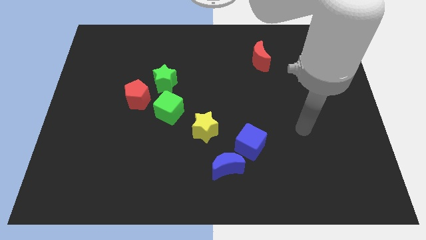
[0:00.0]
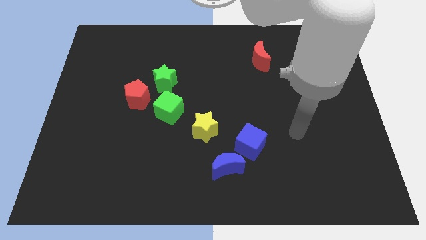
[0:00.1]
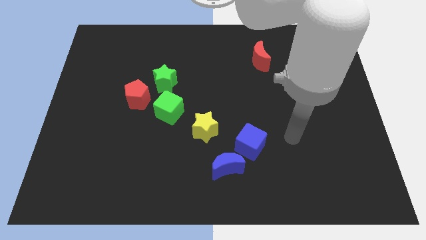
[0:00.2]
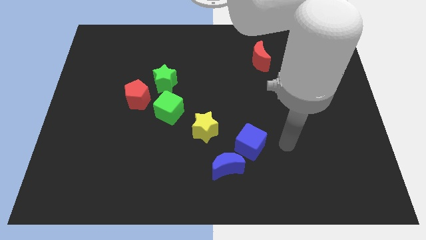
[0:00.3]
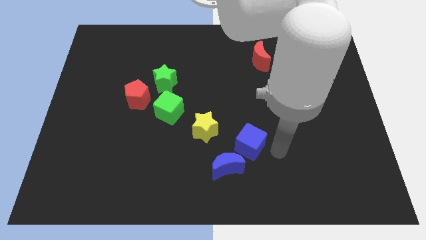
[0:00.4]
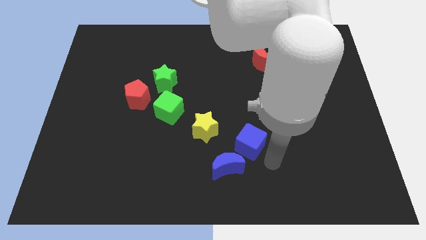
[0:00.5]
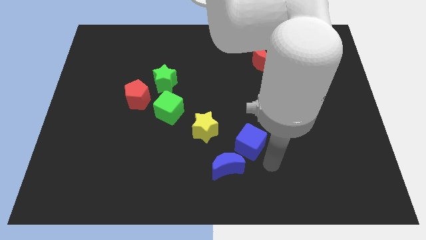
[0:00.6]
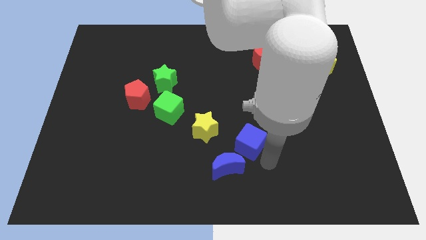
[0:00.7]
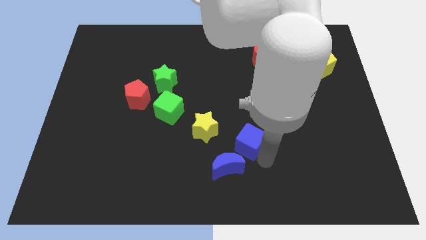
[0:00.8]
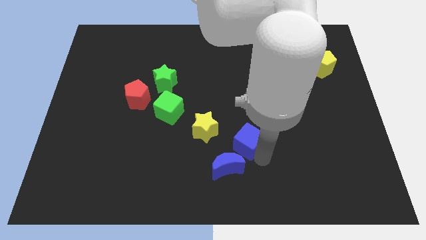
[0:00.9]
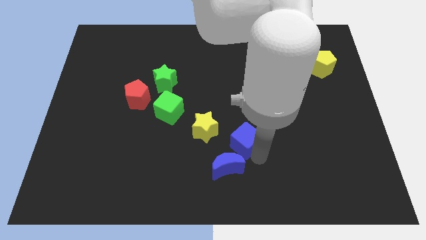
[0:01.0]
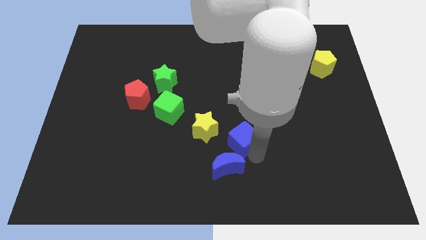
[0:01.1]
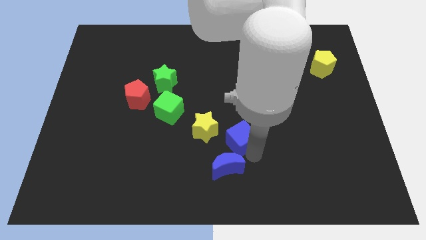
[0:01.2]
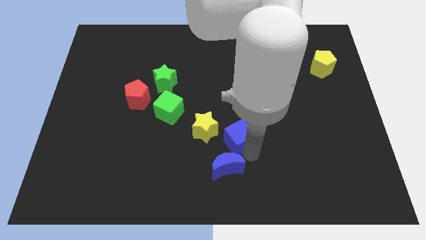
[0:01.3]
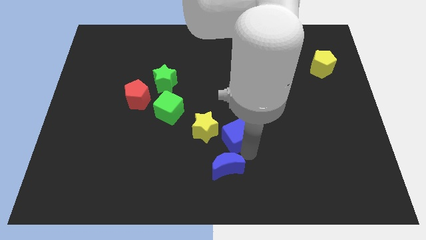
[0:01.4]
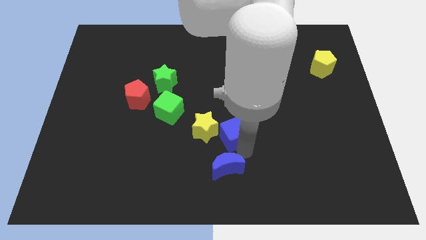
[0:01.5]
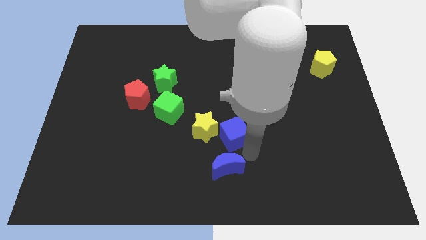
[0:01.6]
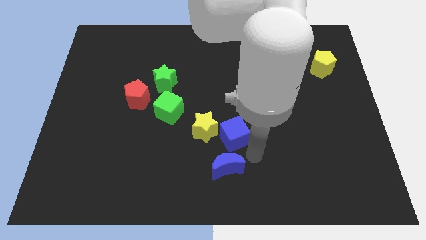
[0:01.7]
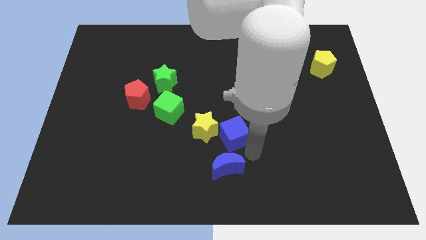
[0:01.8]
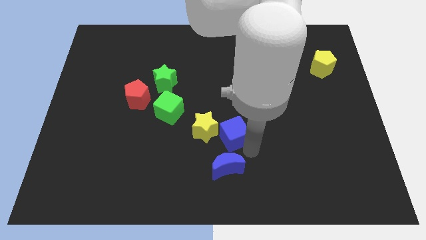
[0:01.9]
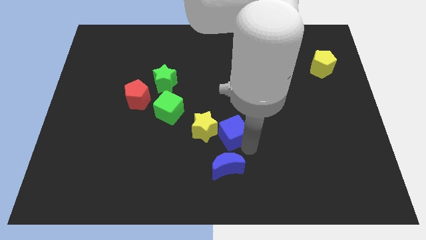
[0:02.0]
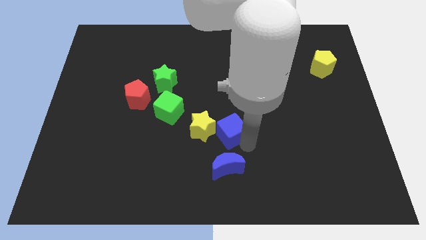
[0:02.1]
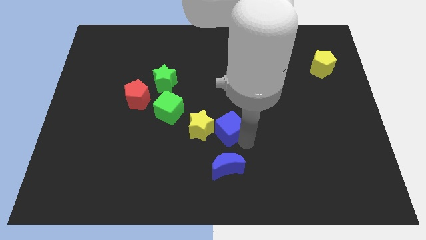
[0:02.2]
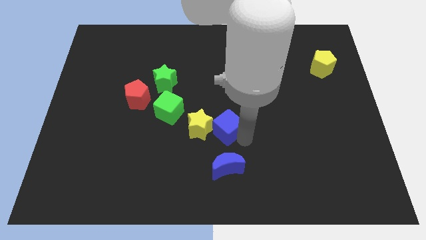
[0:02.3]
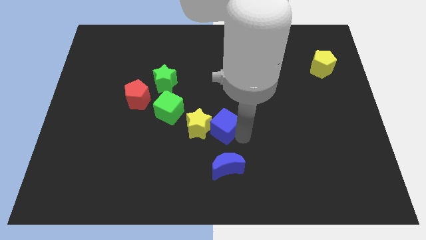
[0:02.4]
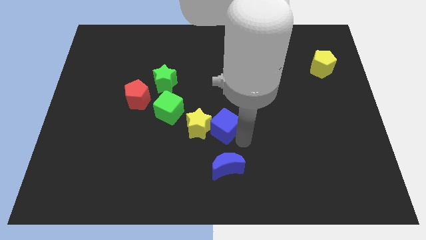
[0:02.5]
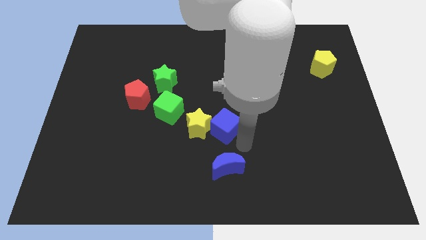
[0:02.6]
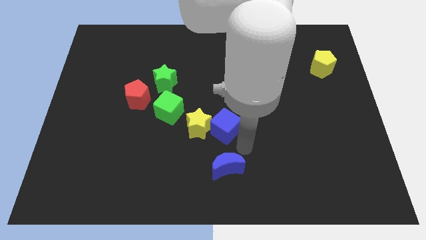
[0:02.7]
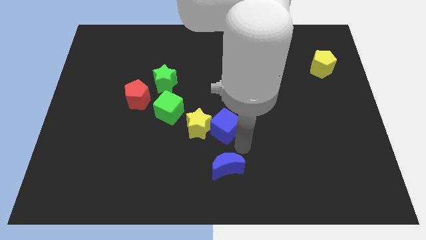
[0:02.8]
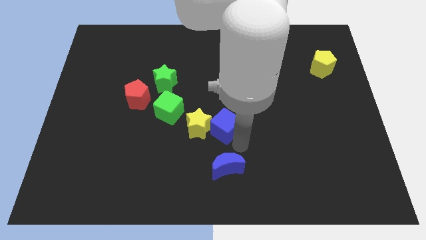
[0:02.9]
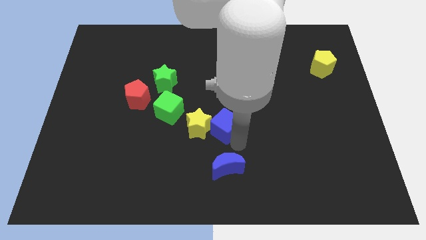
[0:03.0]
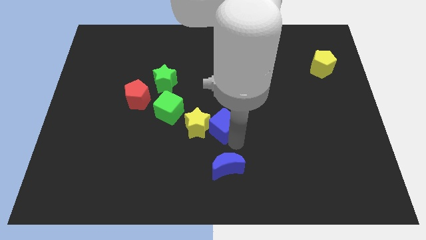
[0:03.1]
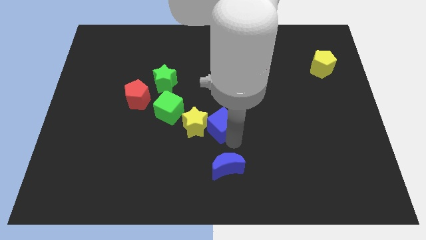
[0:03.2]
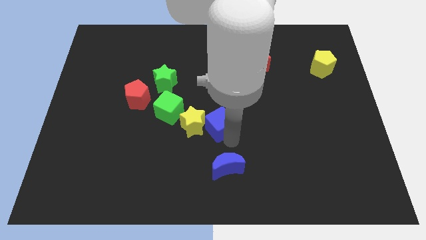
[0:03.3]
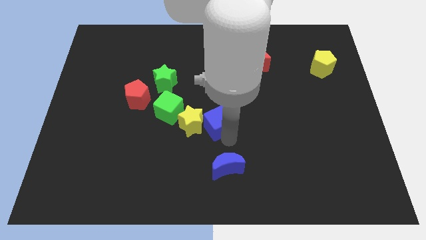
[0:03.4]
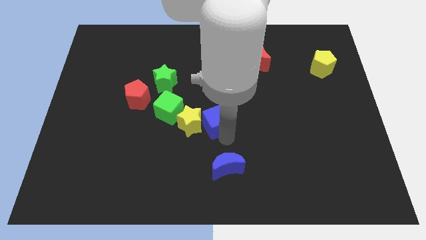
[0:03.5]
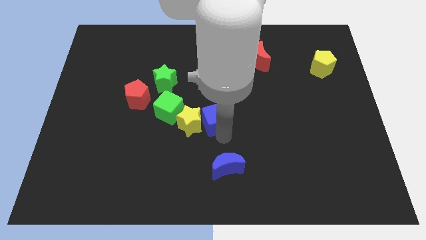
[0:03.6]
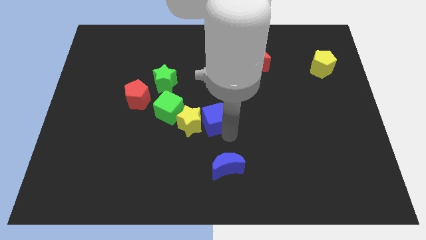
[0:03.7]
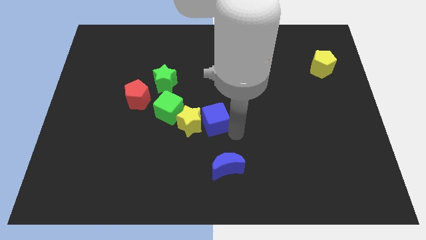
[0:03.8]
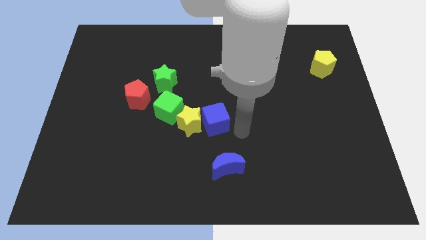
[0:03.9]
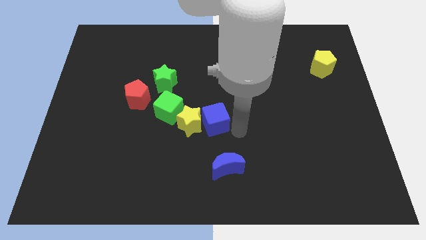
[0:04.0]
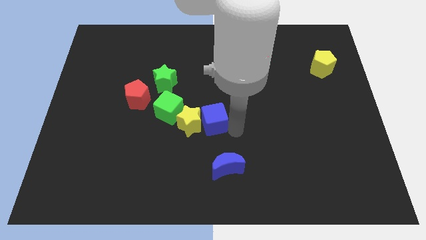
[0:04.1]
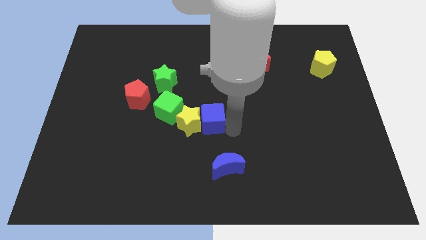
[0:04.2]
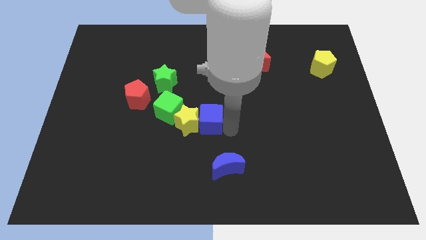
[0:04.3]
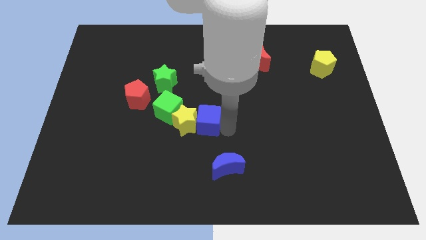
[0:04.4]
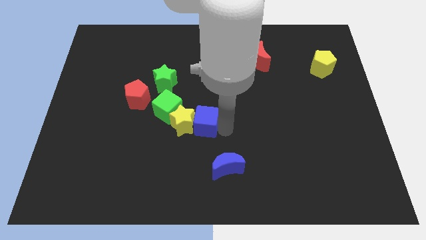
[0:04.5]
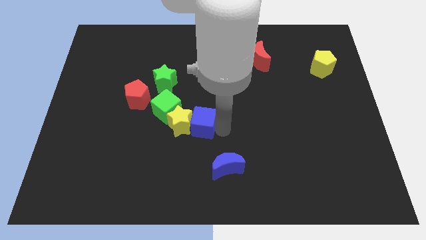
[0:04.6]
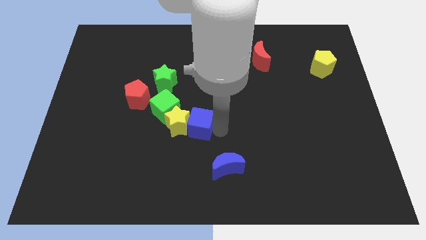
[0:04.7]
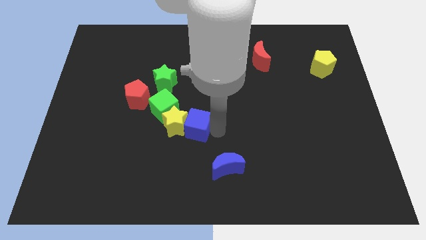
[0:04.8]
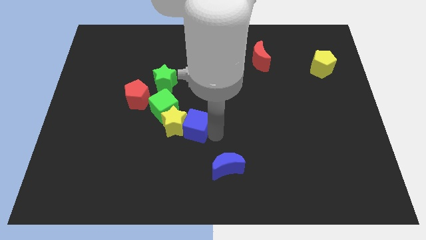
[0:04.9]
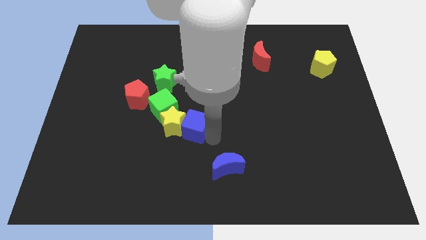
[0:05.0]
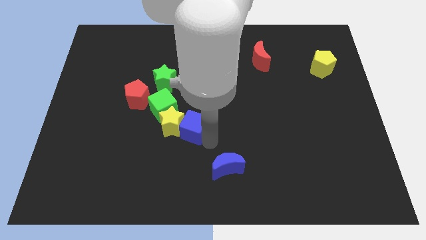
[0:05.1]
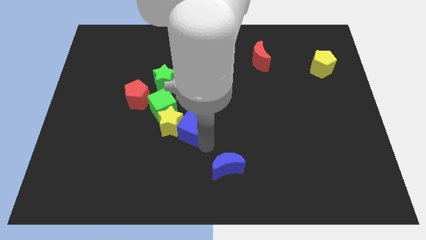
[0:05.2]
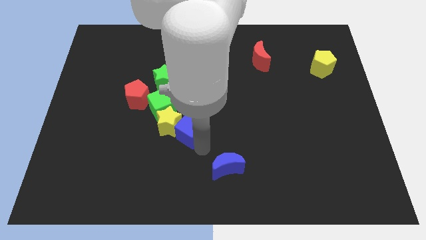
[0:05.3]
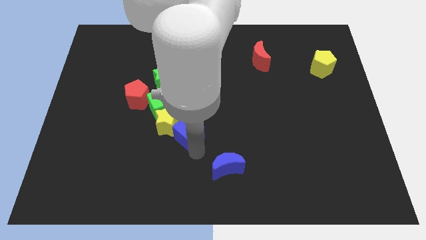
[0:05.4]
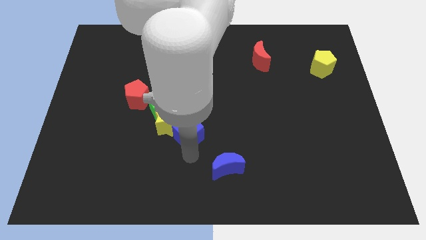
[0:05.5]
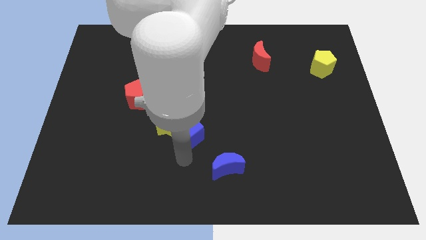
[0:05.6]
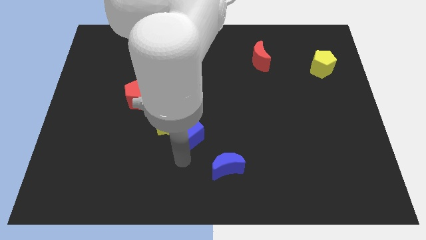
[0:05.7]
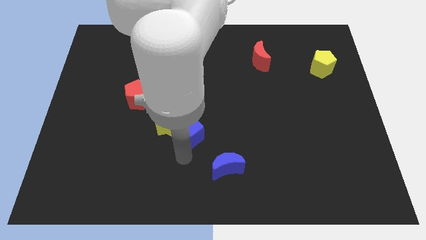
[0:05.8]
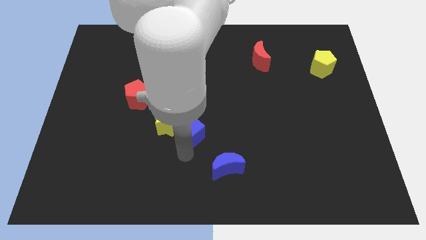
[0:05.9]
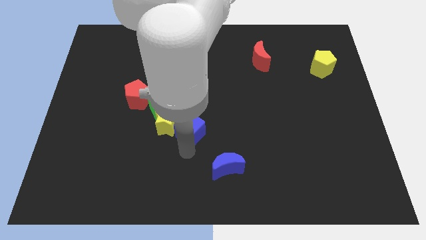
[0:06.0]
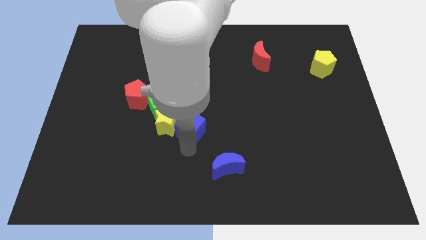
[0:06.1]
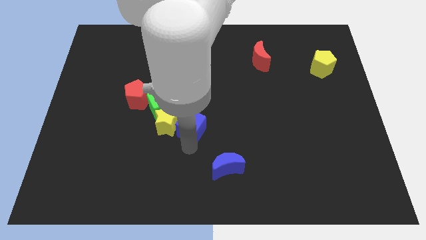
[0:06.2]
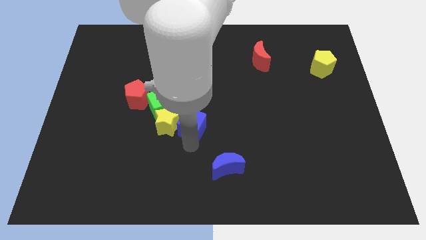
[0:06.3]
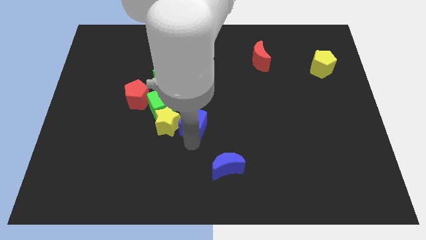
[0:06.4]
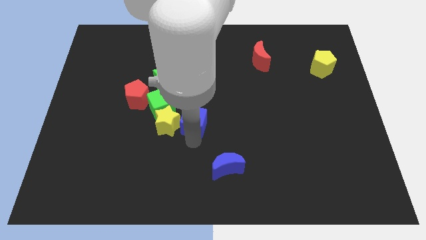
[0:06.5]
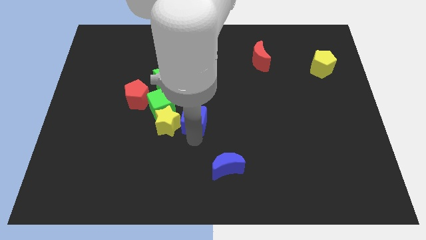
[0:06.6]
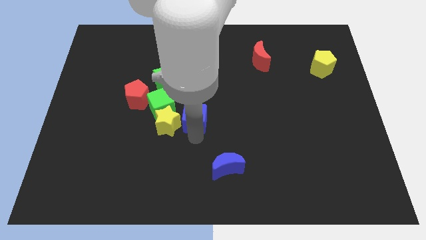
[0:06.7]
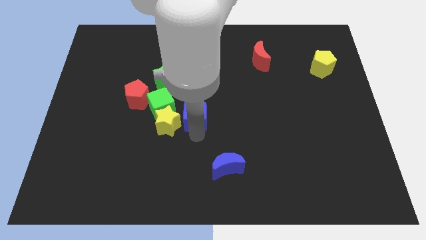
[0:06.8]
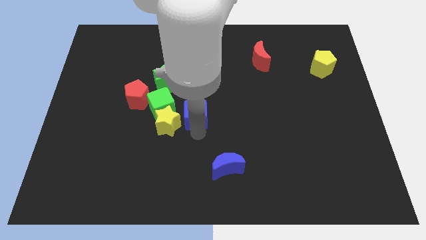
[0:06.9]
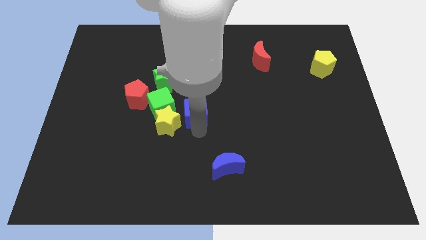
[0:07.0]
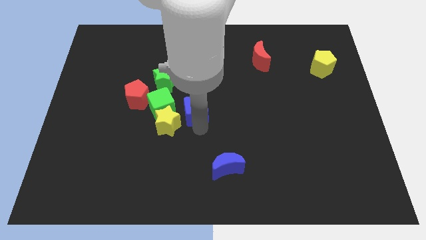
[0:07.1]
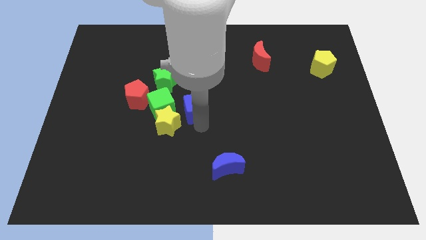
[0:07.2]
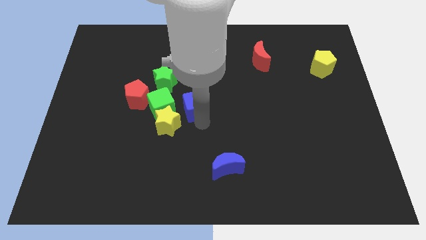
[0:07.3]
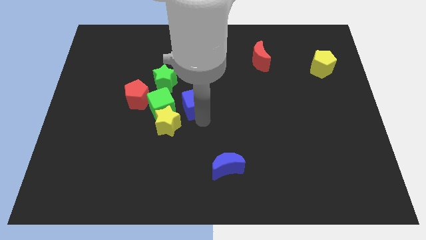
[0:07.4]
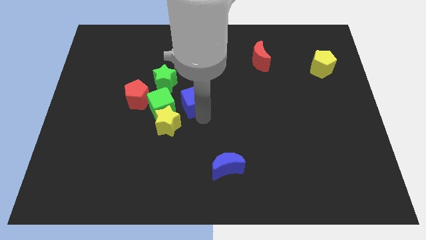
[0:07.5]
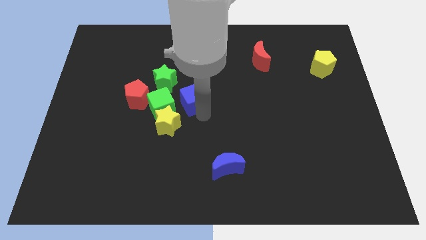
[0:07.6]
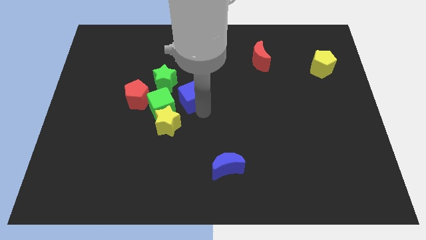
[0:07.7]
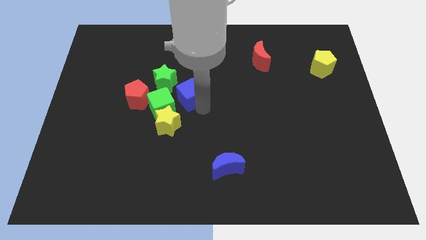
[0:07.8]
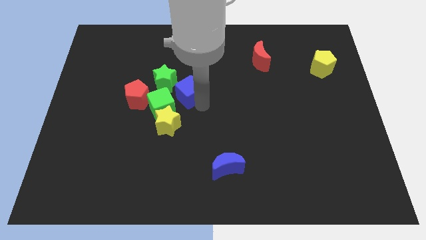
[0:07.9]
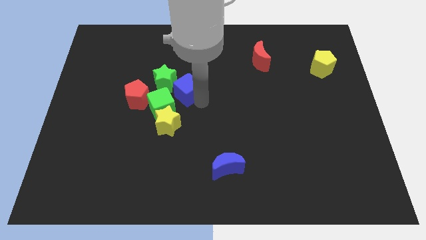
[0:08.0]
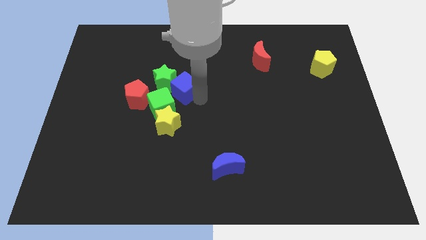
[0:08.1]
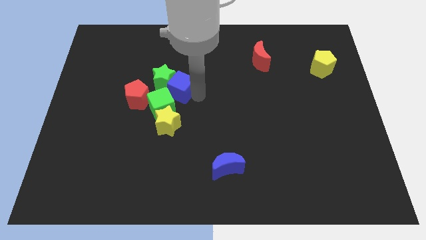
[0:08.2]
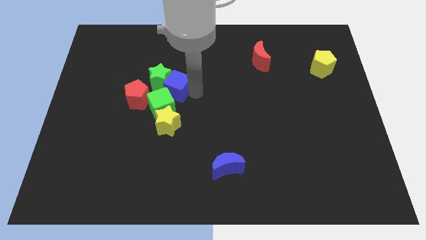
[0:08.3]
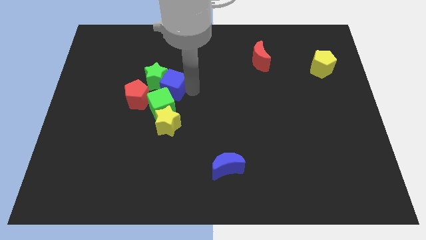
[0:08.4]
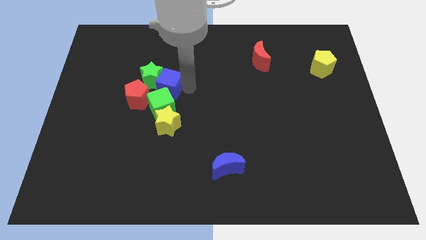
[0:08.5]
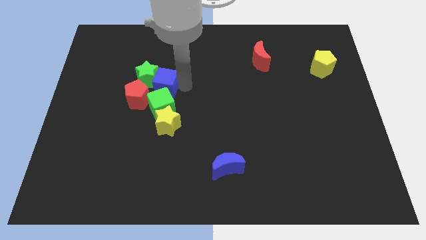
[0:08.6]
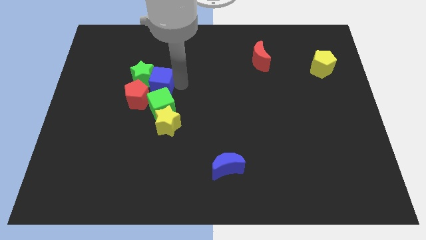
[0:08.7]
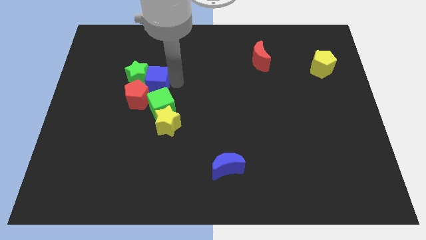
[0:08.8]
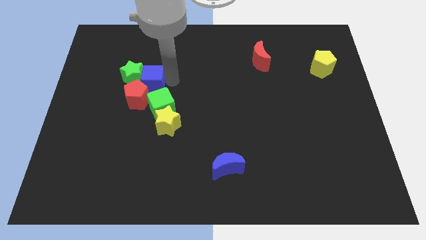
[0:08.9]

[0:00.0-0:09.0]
put the blue cube next to the red pentagon
